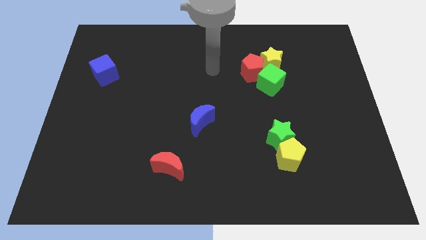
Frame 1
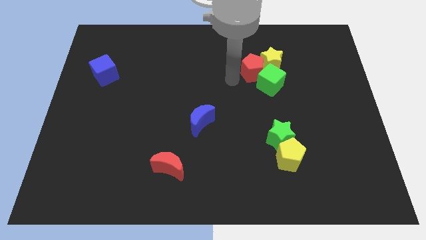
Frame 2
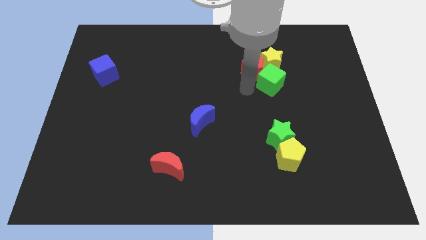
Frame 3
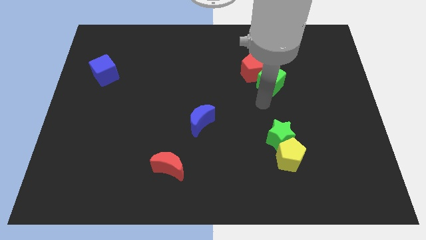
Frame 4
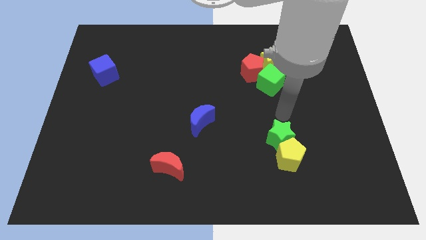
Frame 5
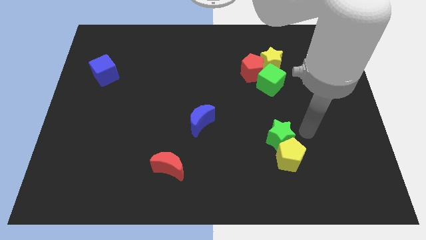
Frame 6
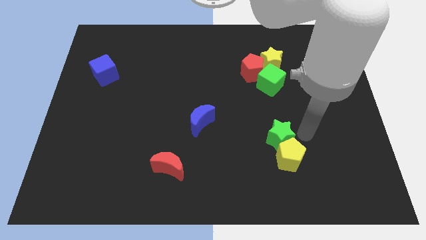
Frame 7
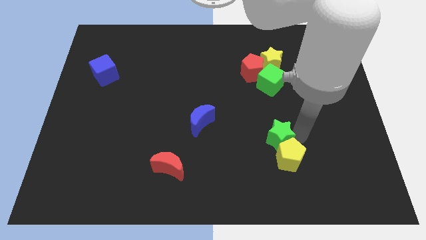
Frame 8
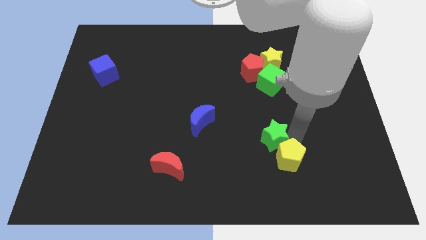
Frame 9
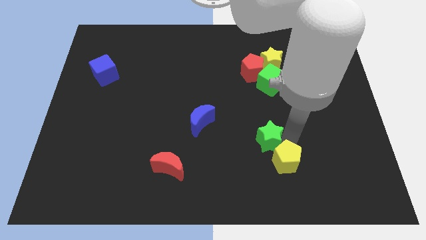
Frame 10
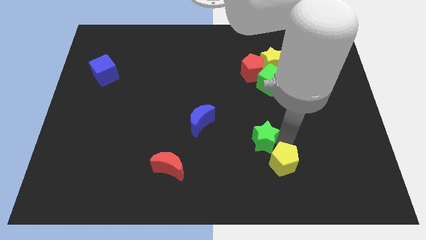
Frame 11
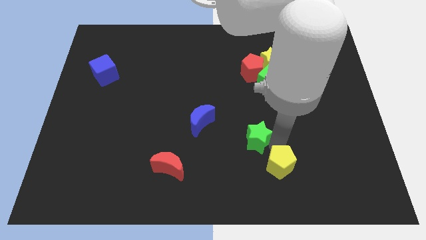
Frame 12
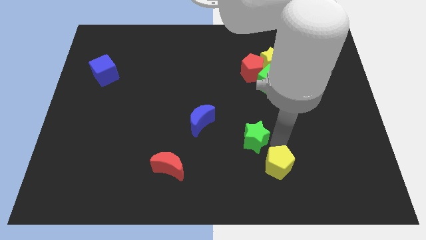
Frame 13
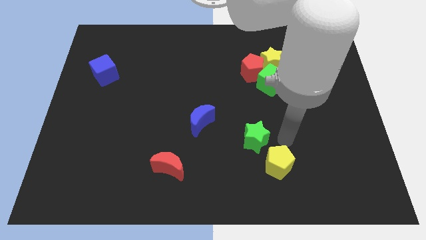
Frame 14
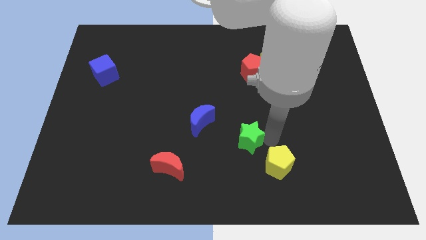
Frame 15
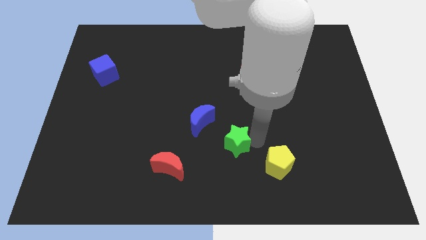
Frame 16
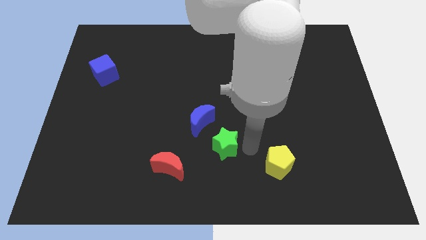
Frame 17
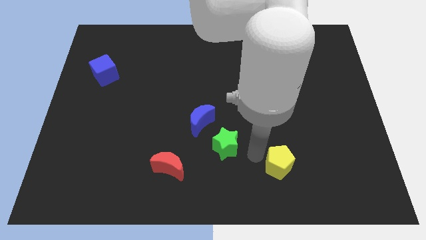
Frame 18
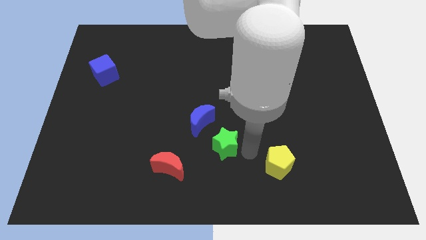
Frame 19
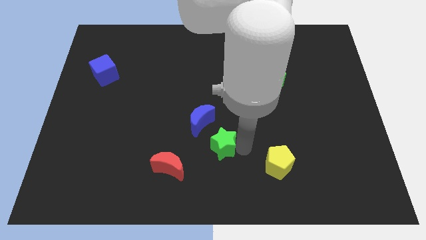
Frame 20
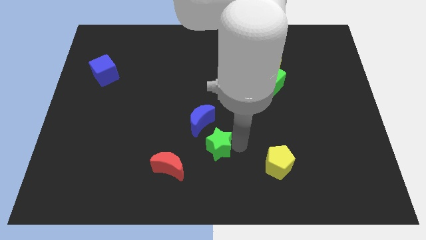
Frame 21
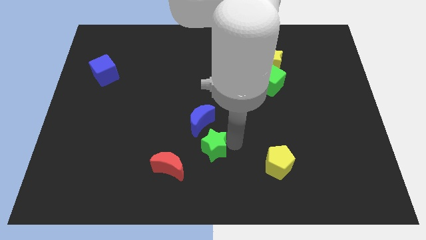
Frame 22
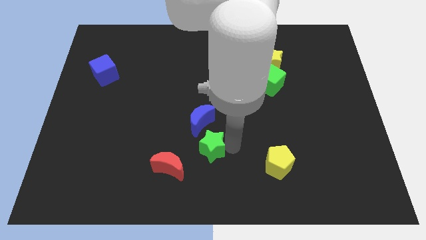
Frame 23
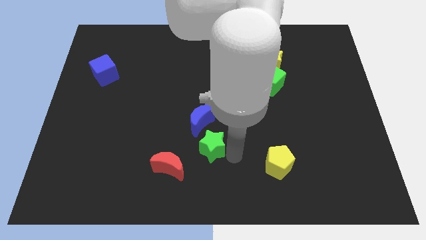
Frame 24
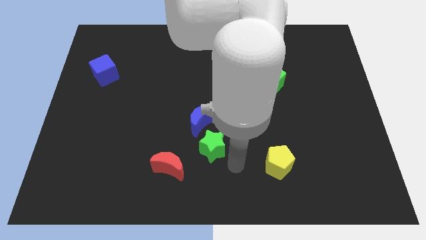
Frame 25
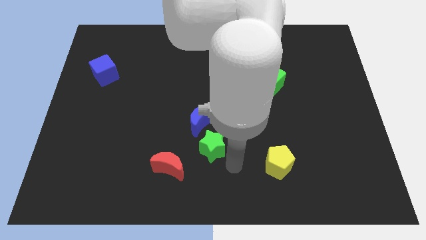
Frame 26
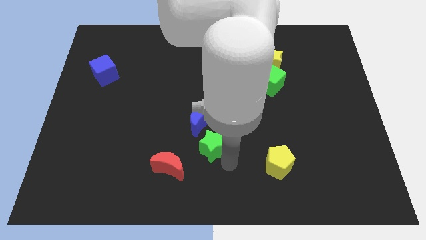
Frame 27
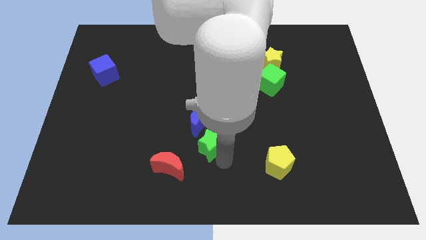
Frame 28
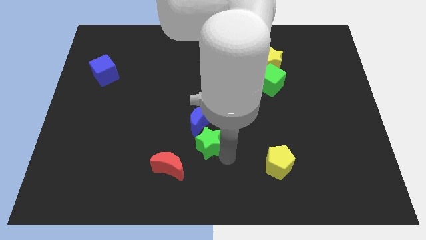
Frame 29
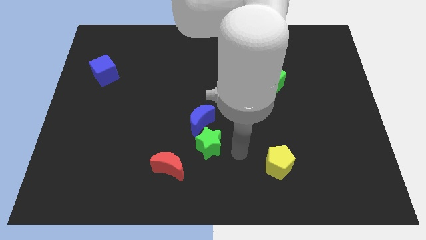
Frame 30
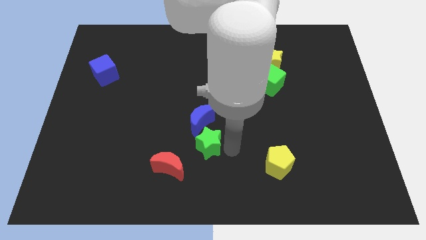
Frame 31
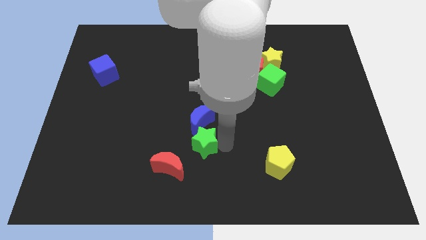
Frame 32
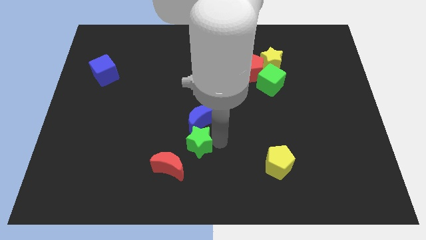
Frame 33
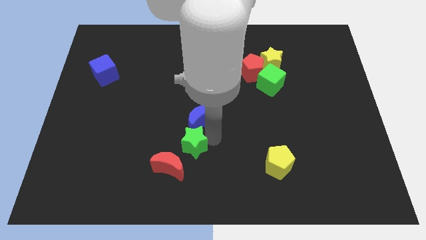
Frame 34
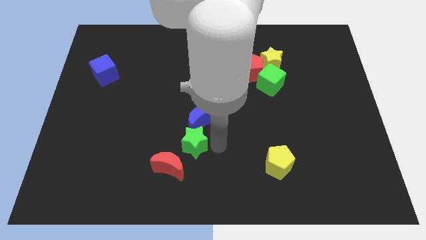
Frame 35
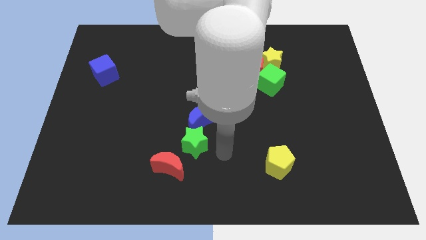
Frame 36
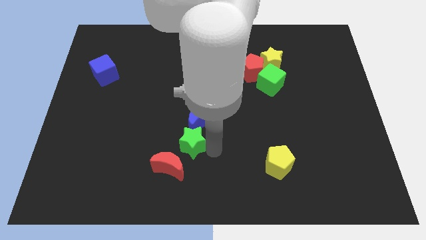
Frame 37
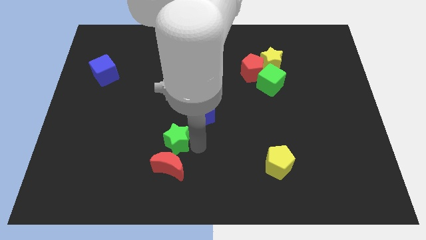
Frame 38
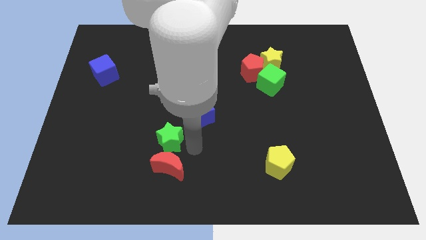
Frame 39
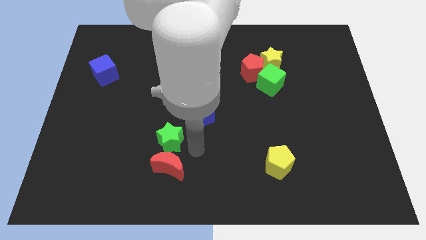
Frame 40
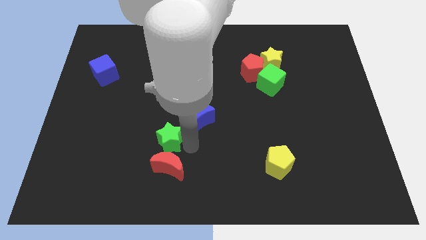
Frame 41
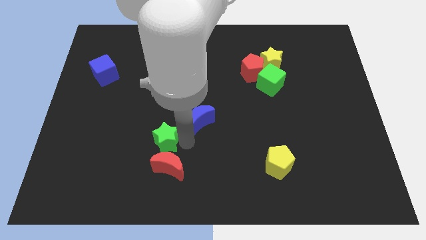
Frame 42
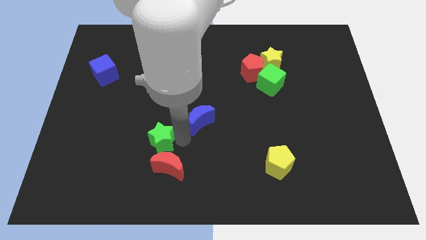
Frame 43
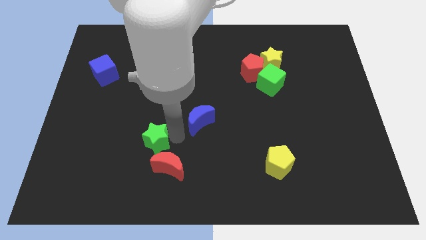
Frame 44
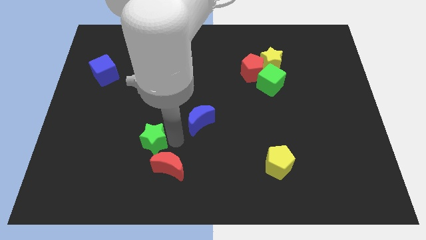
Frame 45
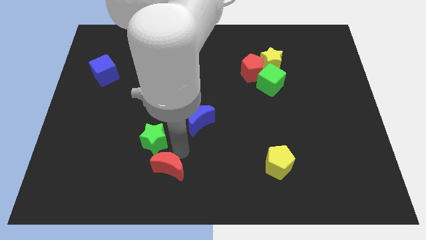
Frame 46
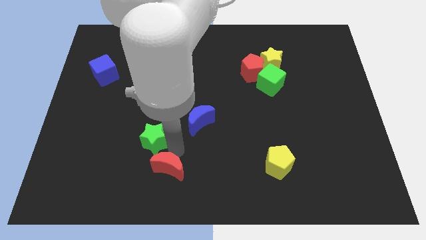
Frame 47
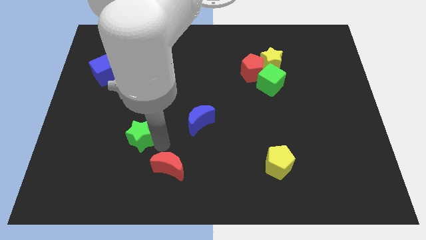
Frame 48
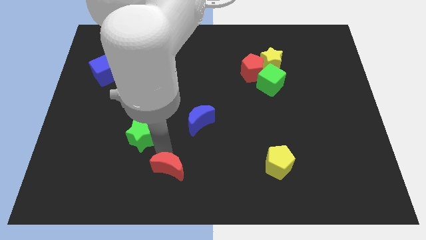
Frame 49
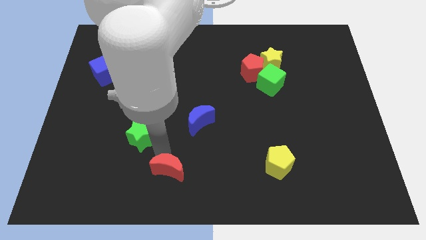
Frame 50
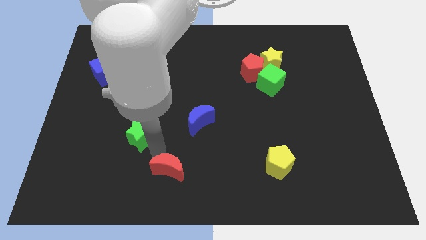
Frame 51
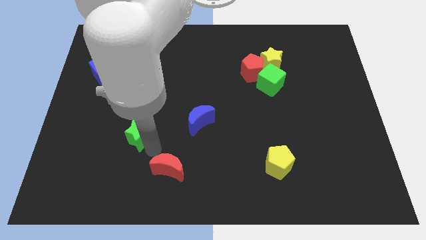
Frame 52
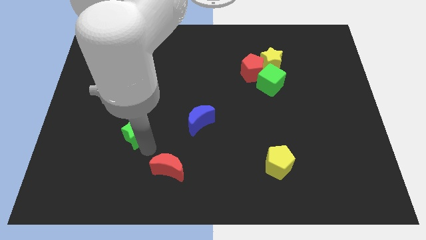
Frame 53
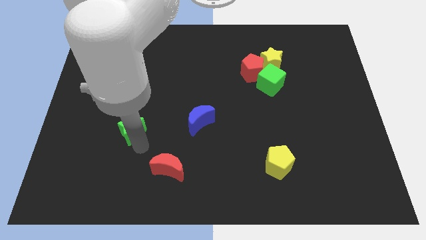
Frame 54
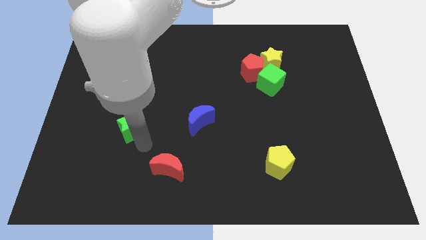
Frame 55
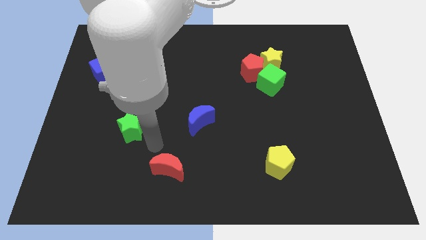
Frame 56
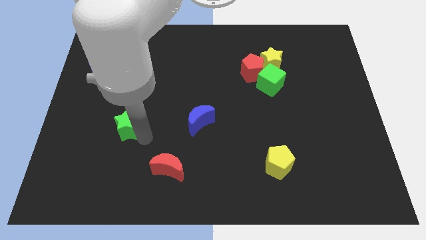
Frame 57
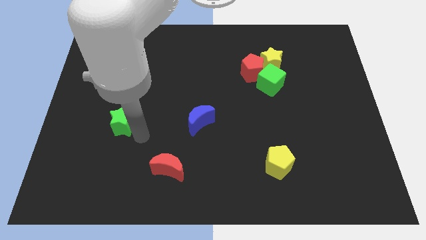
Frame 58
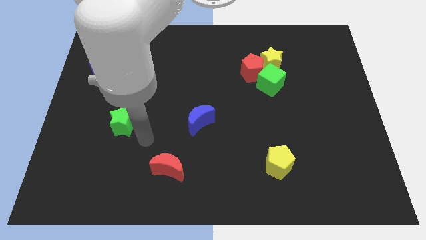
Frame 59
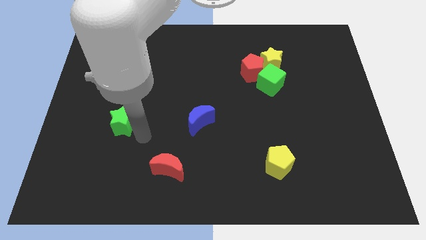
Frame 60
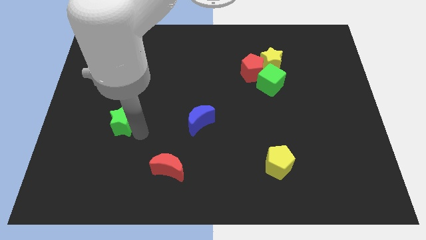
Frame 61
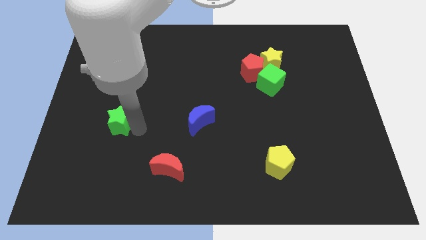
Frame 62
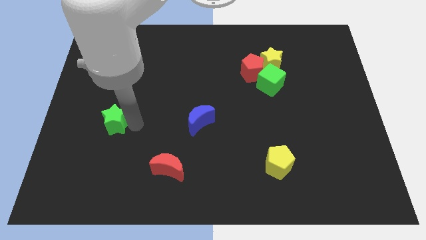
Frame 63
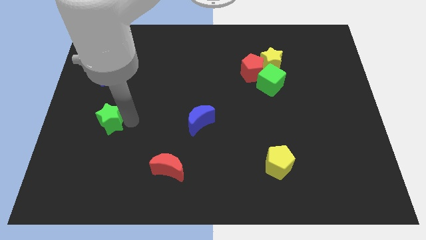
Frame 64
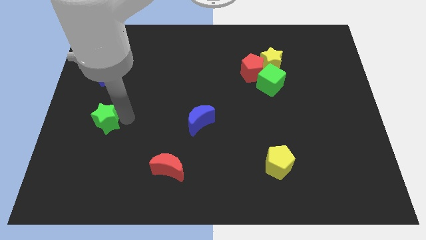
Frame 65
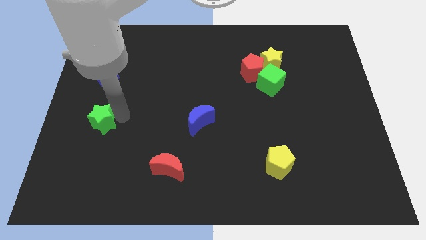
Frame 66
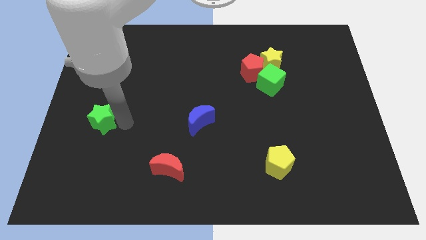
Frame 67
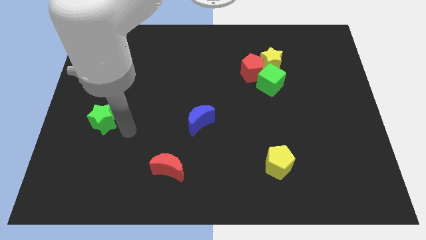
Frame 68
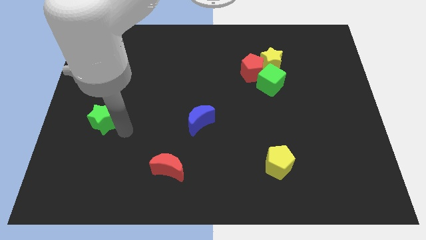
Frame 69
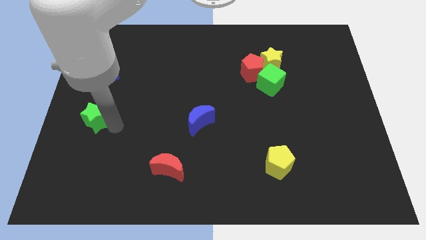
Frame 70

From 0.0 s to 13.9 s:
slide the green star to the center left
